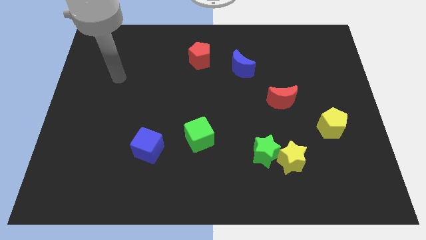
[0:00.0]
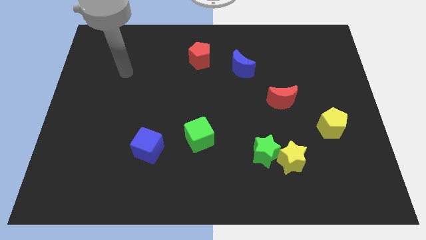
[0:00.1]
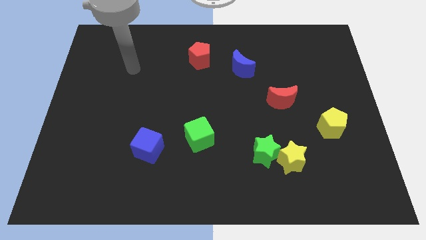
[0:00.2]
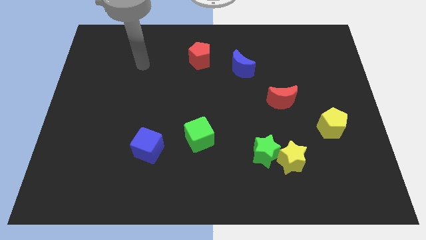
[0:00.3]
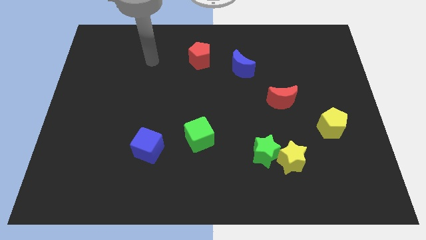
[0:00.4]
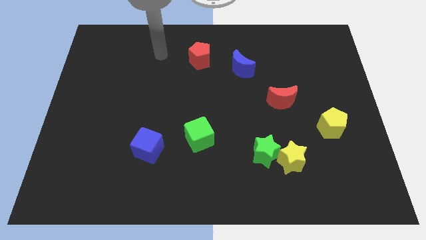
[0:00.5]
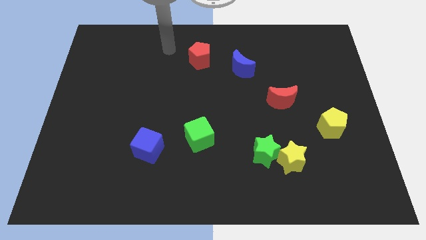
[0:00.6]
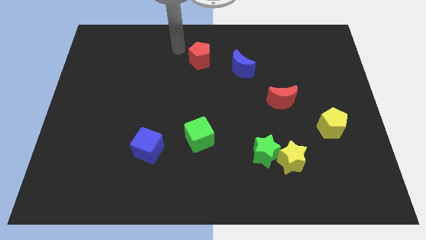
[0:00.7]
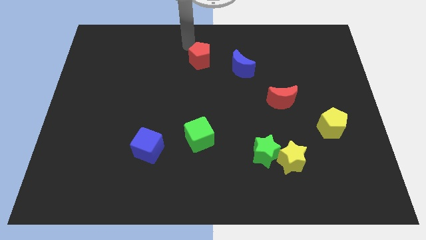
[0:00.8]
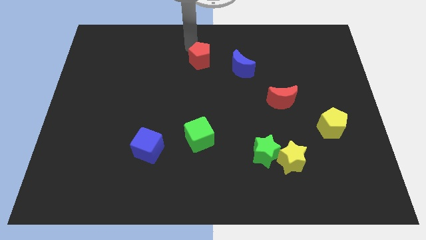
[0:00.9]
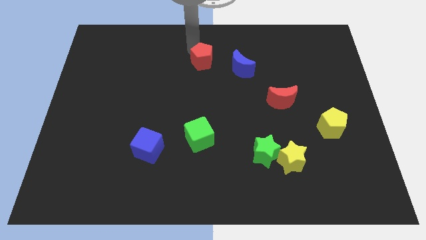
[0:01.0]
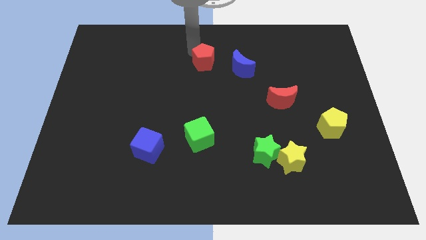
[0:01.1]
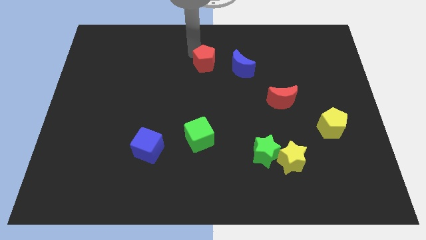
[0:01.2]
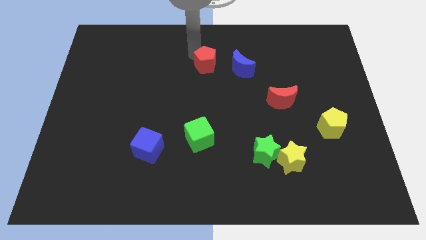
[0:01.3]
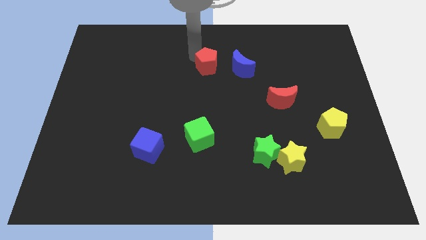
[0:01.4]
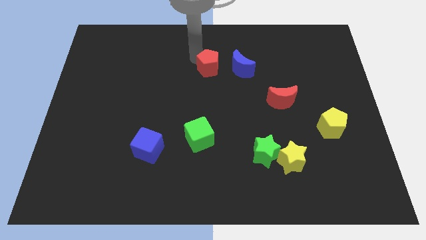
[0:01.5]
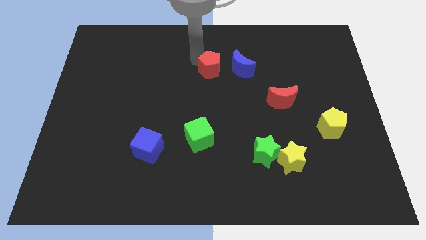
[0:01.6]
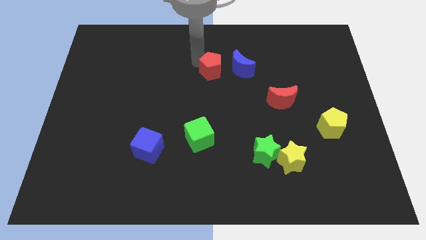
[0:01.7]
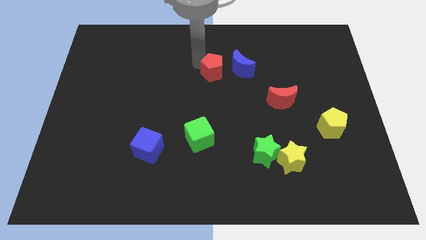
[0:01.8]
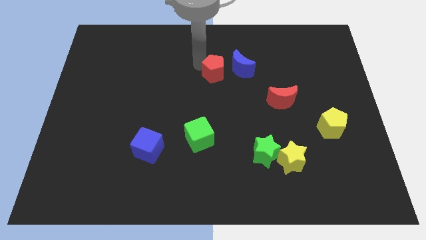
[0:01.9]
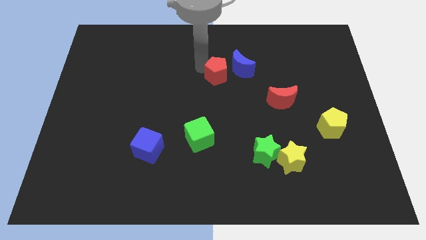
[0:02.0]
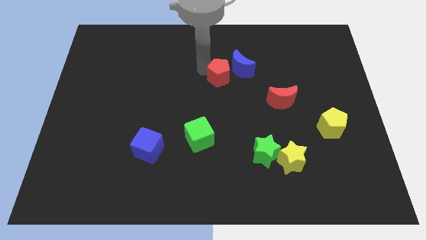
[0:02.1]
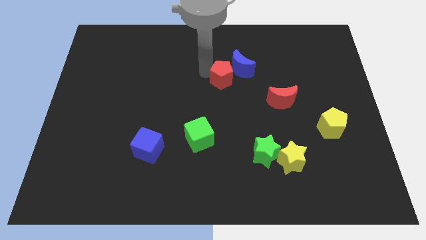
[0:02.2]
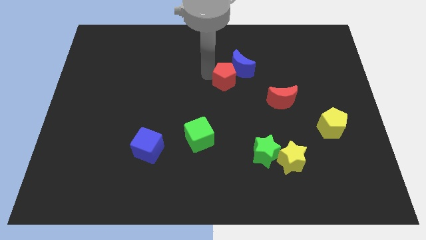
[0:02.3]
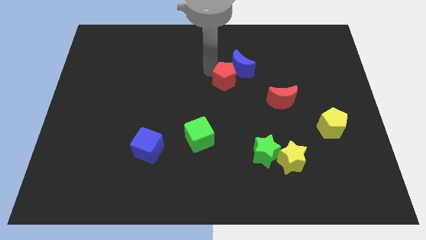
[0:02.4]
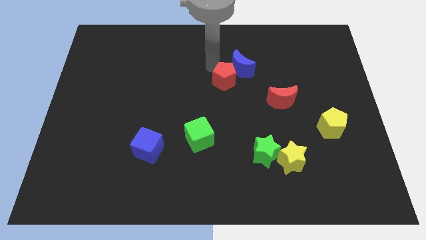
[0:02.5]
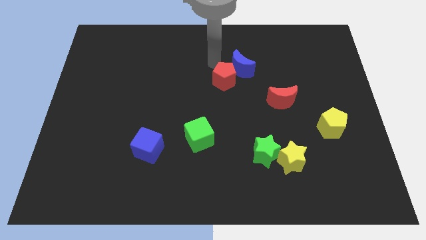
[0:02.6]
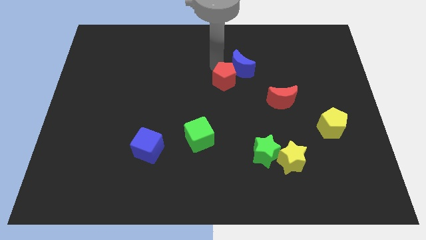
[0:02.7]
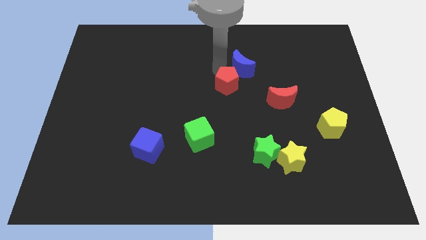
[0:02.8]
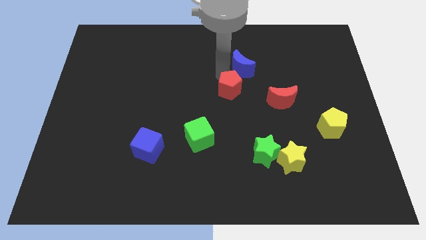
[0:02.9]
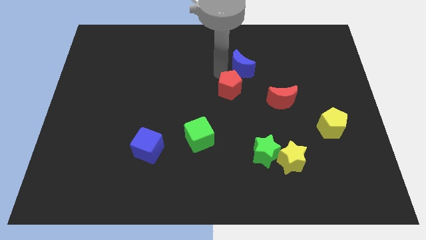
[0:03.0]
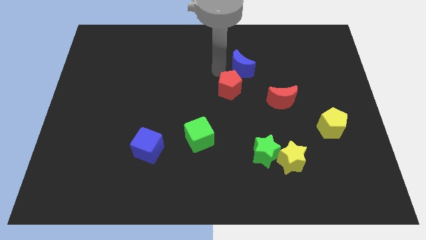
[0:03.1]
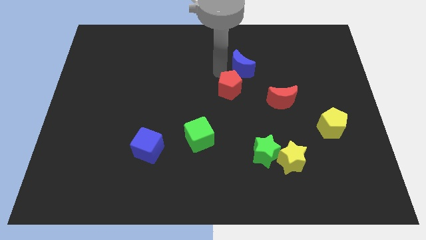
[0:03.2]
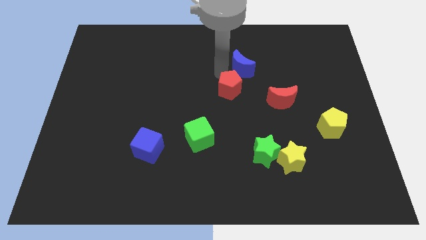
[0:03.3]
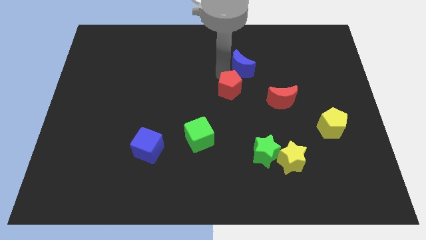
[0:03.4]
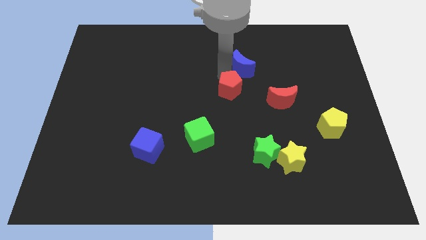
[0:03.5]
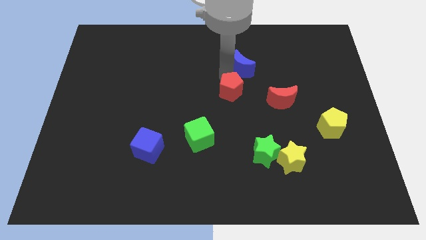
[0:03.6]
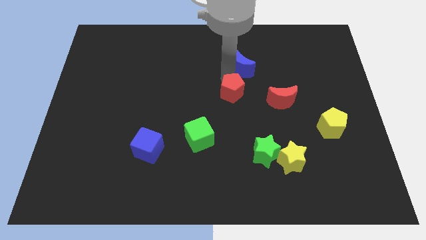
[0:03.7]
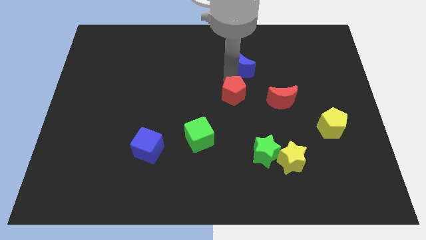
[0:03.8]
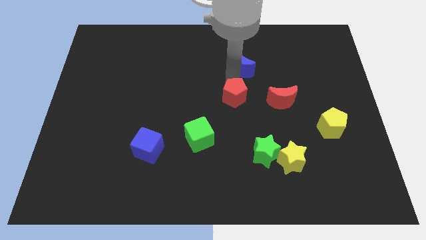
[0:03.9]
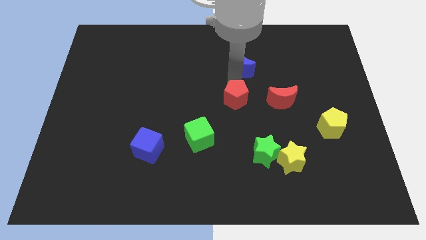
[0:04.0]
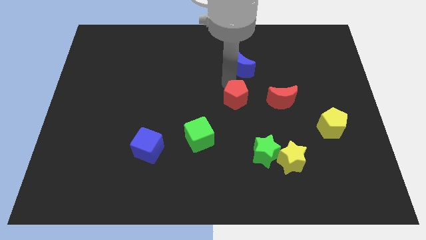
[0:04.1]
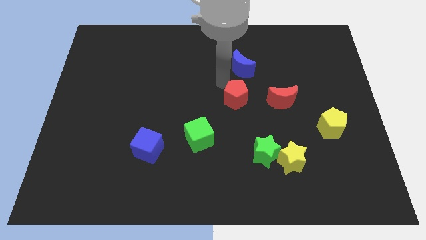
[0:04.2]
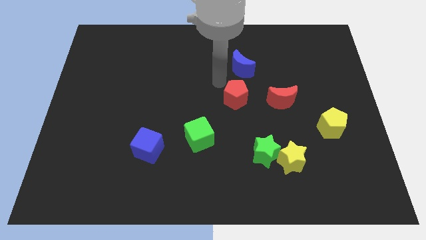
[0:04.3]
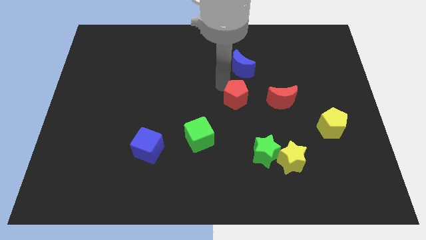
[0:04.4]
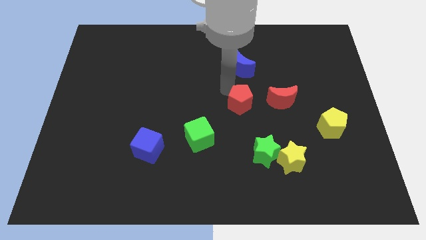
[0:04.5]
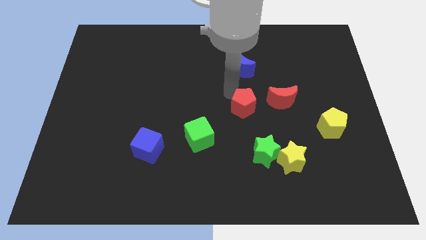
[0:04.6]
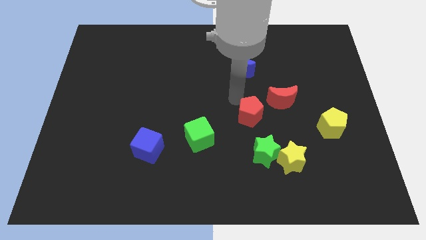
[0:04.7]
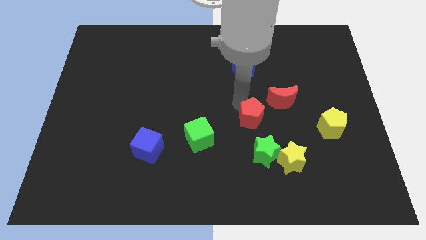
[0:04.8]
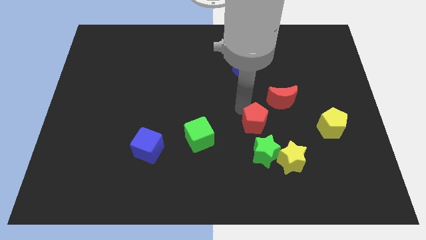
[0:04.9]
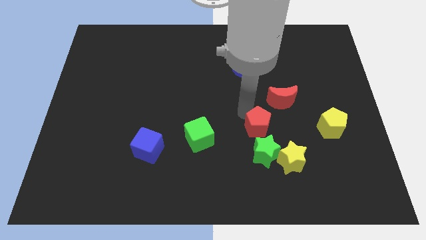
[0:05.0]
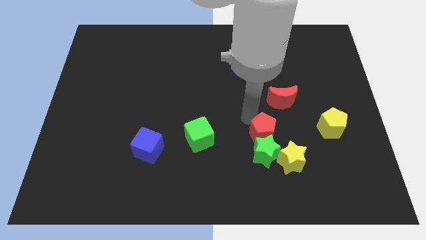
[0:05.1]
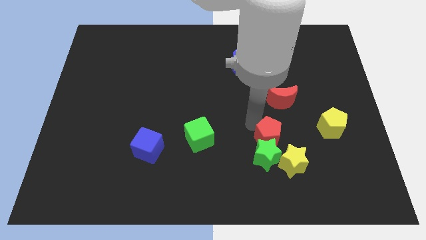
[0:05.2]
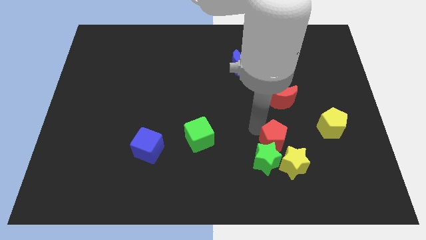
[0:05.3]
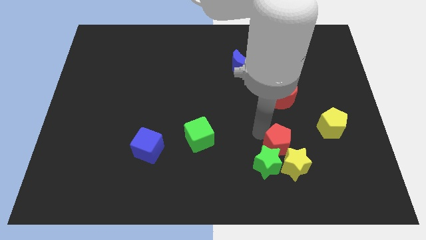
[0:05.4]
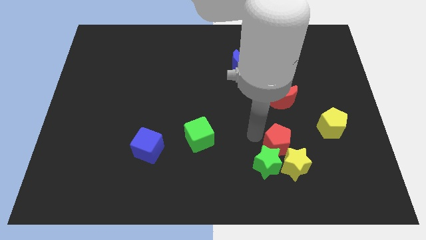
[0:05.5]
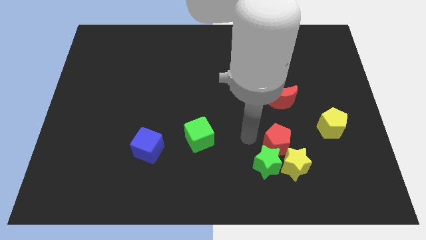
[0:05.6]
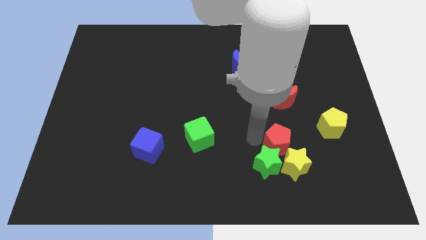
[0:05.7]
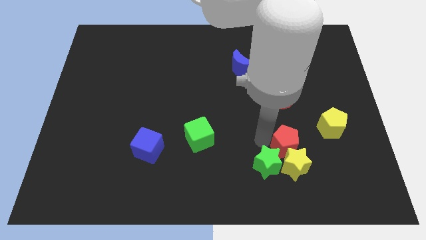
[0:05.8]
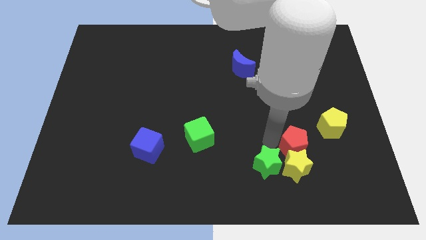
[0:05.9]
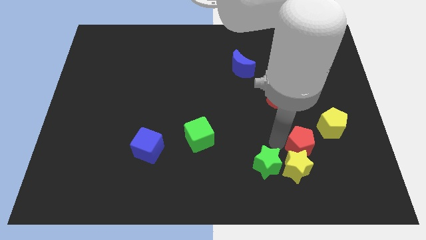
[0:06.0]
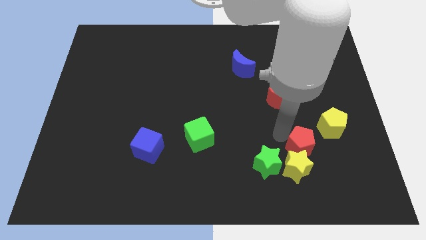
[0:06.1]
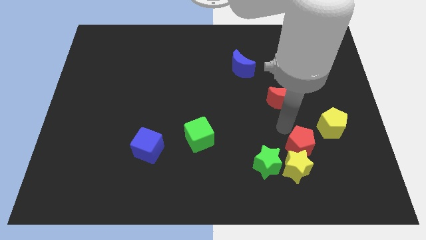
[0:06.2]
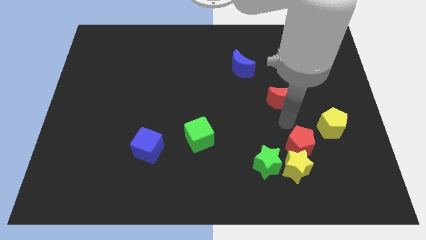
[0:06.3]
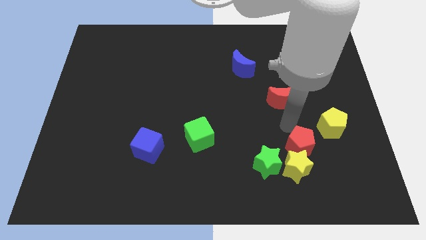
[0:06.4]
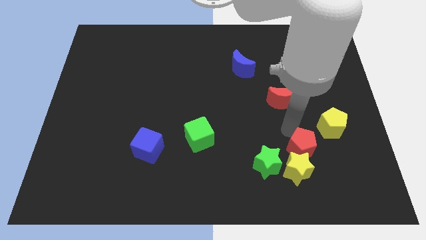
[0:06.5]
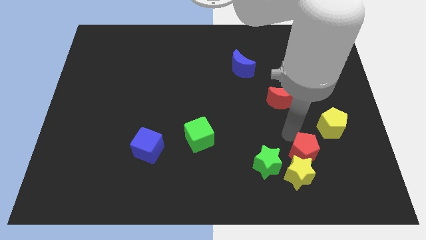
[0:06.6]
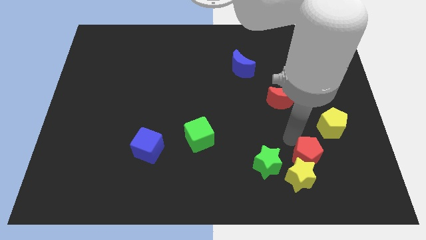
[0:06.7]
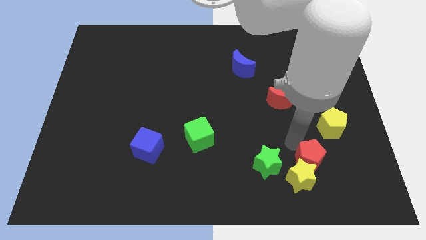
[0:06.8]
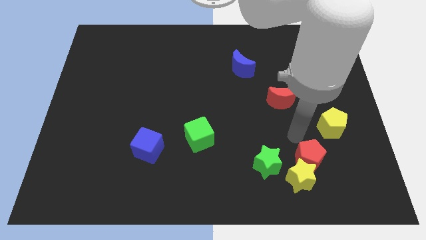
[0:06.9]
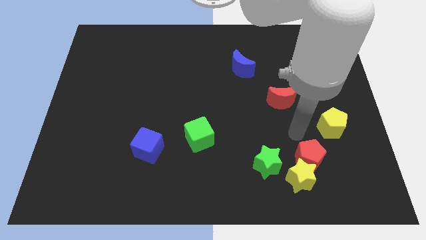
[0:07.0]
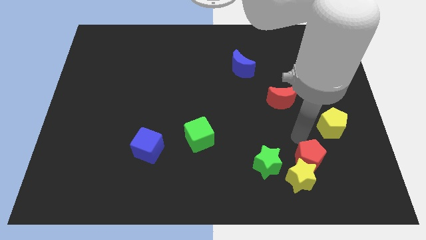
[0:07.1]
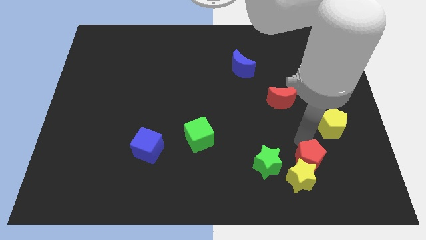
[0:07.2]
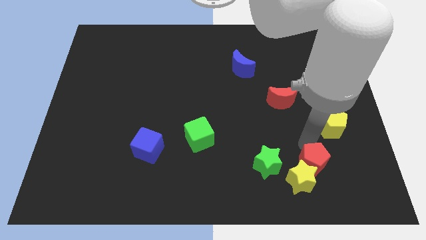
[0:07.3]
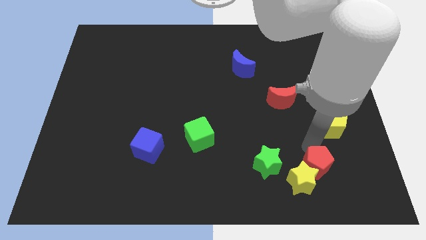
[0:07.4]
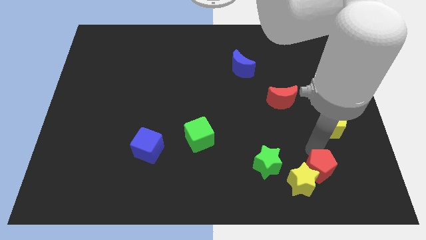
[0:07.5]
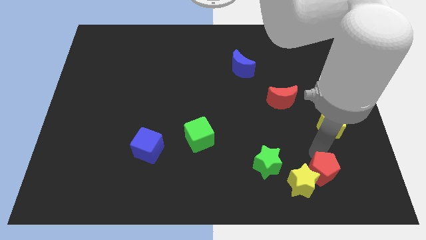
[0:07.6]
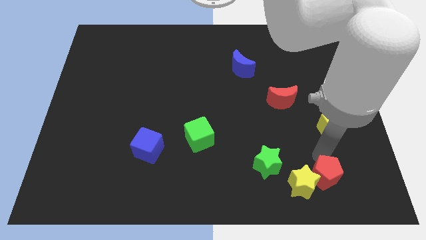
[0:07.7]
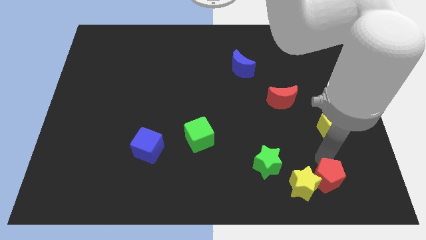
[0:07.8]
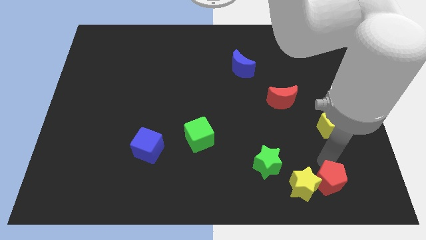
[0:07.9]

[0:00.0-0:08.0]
slide the red pentagon diagonally down and to the right of the yellow star
